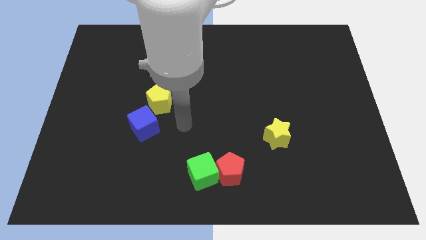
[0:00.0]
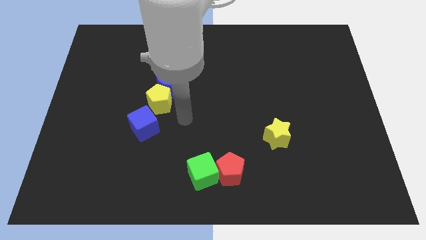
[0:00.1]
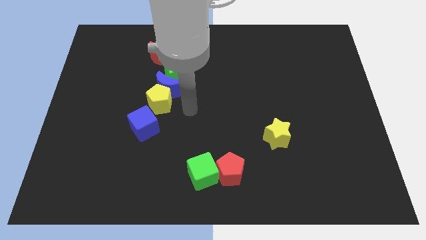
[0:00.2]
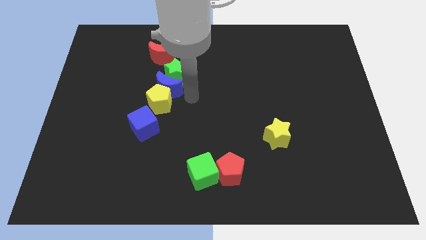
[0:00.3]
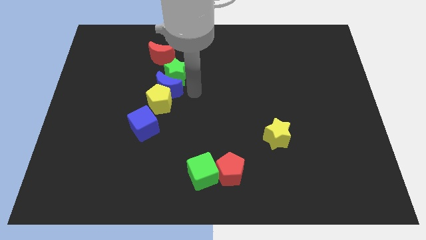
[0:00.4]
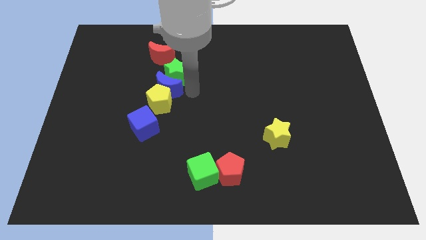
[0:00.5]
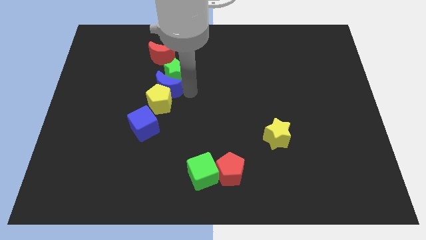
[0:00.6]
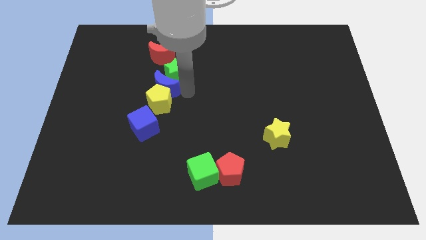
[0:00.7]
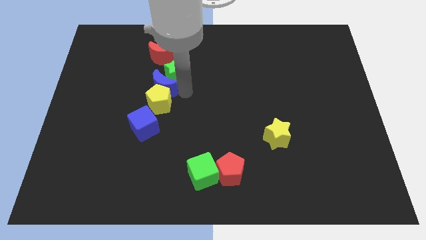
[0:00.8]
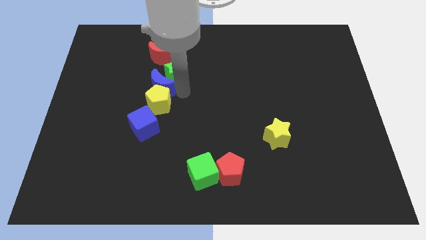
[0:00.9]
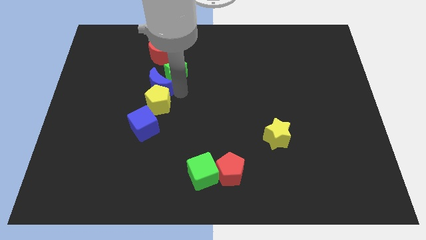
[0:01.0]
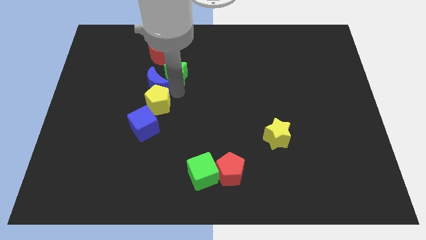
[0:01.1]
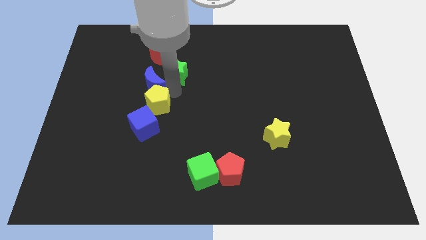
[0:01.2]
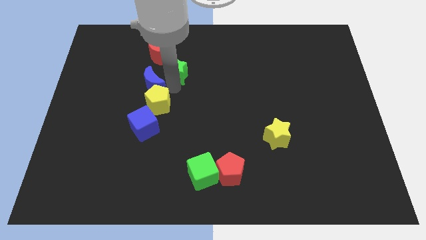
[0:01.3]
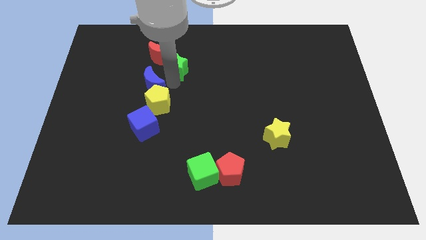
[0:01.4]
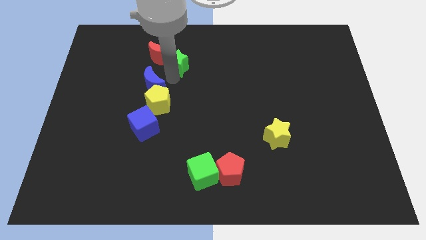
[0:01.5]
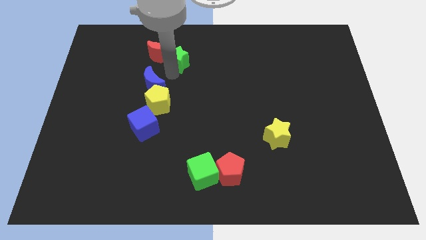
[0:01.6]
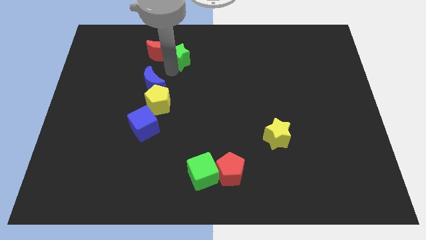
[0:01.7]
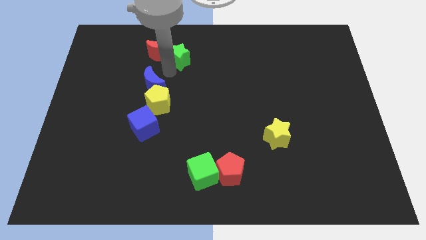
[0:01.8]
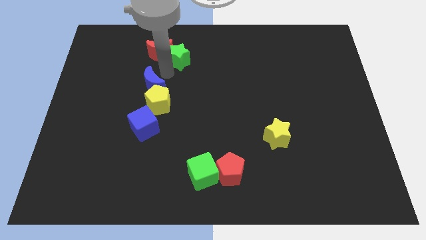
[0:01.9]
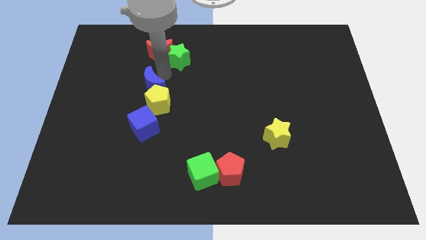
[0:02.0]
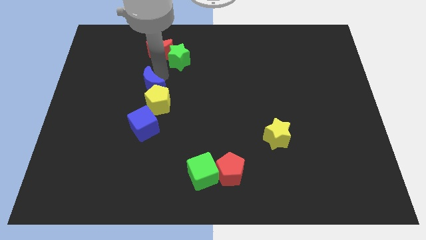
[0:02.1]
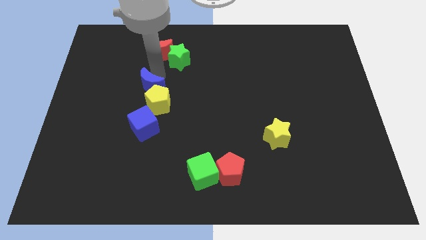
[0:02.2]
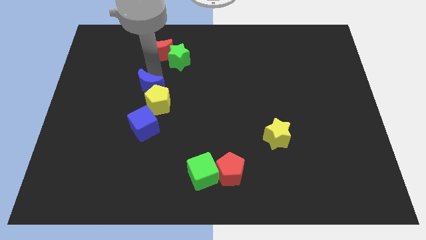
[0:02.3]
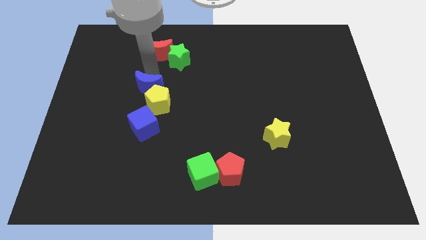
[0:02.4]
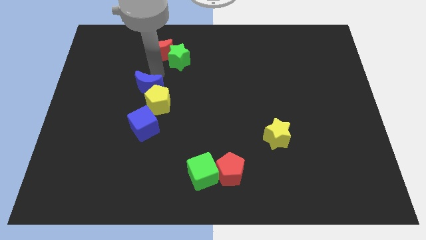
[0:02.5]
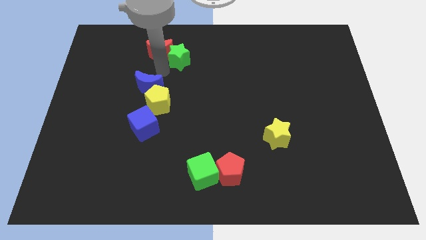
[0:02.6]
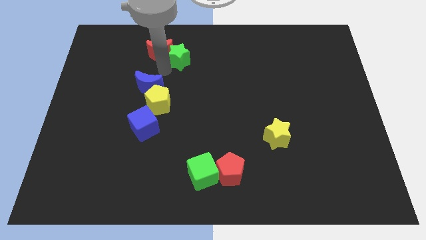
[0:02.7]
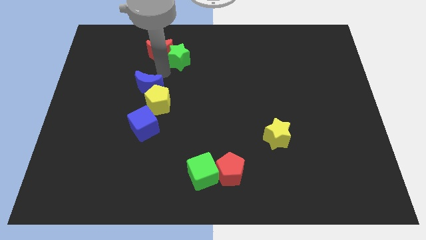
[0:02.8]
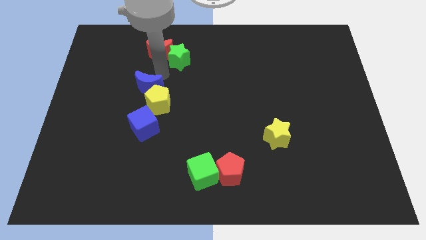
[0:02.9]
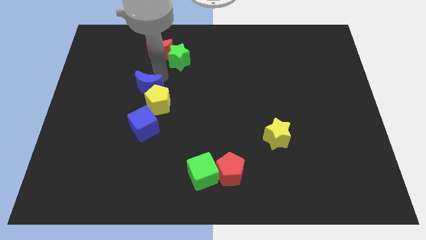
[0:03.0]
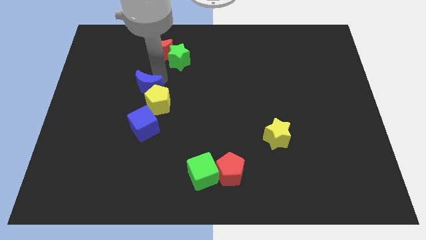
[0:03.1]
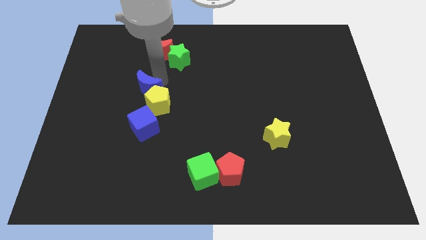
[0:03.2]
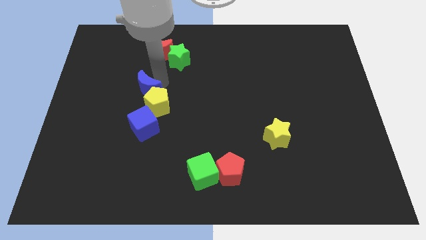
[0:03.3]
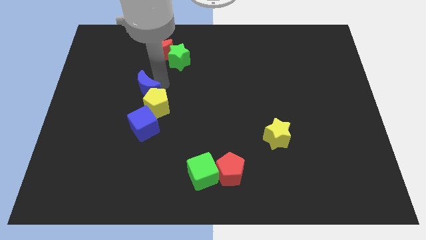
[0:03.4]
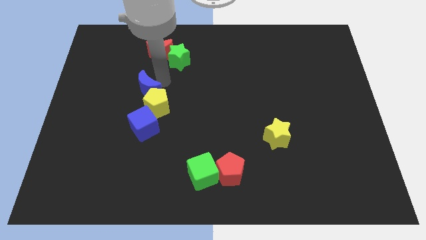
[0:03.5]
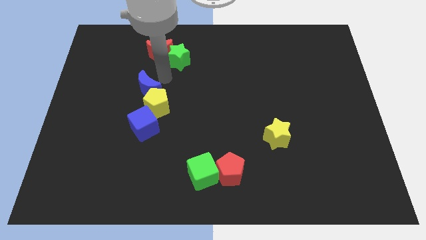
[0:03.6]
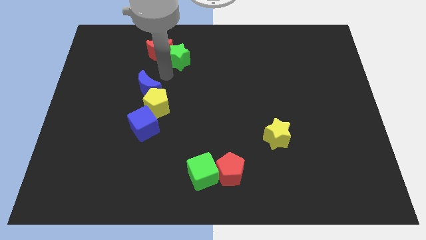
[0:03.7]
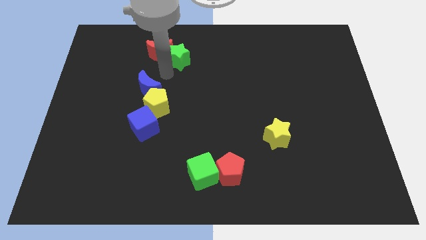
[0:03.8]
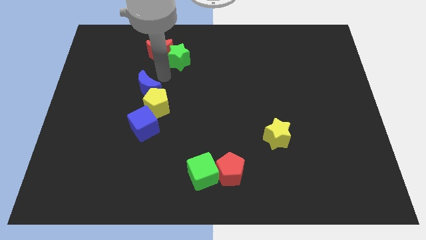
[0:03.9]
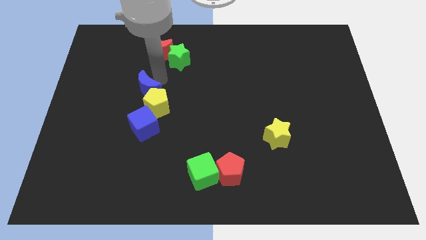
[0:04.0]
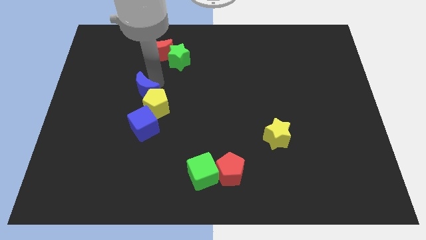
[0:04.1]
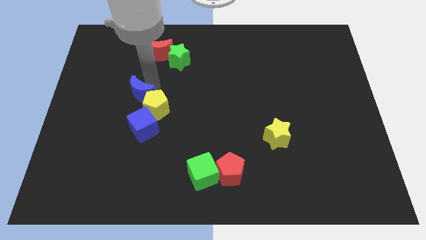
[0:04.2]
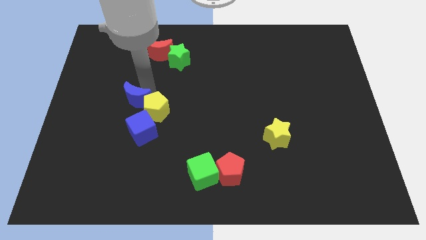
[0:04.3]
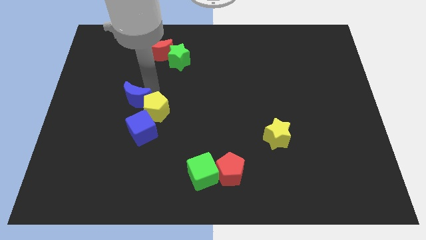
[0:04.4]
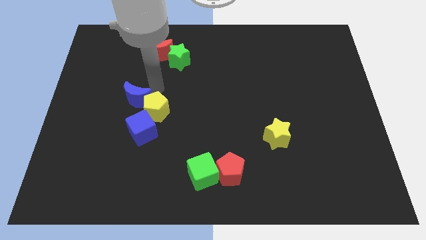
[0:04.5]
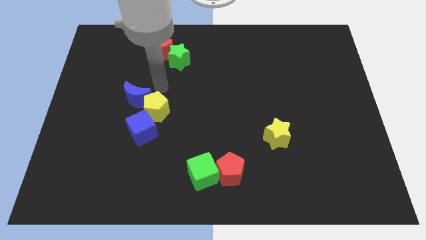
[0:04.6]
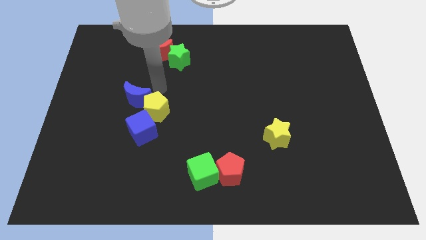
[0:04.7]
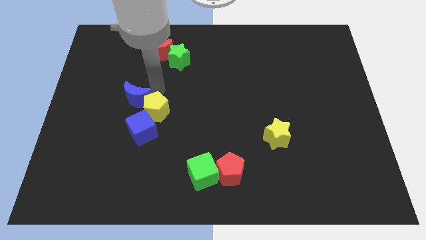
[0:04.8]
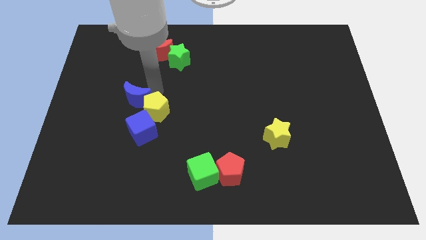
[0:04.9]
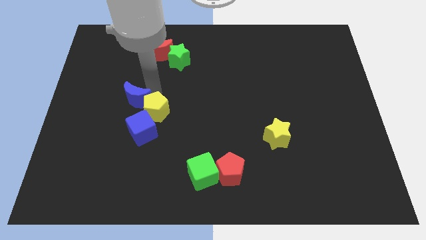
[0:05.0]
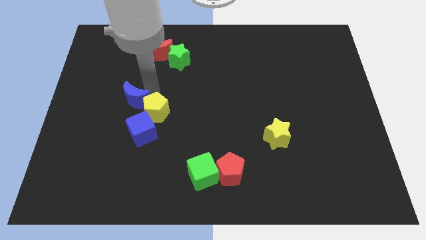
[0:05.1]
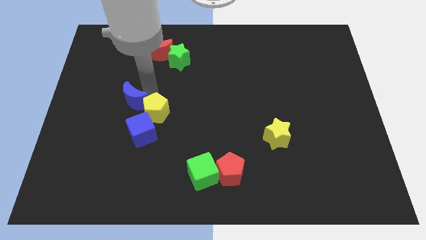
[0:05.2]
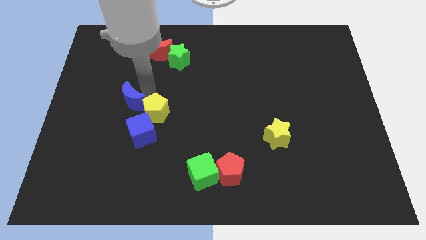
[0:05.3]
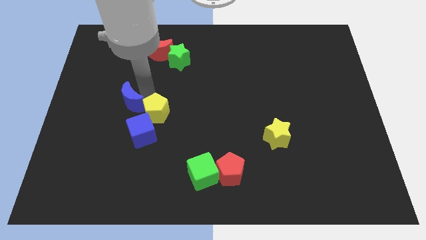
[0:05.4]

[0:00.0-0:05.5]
separate the blue moon from the yellow pentagon and green star

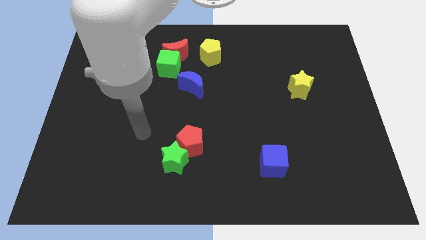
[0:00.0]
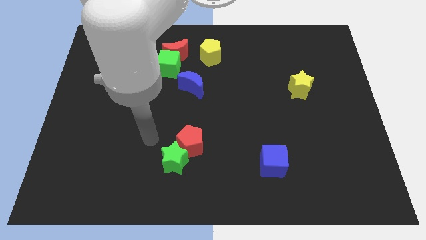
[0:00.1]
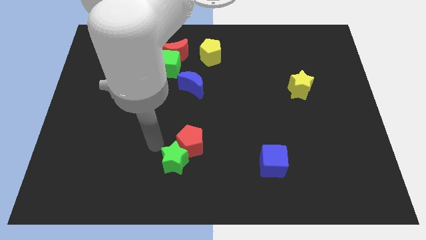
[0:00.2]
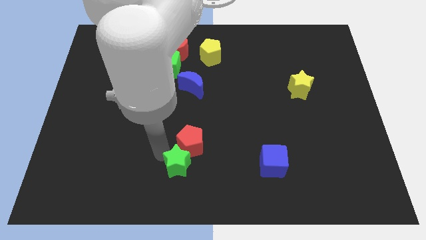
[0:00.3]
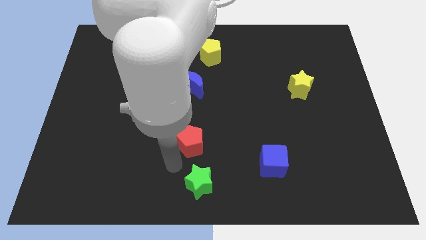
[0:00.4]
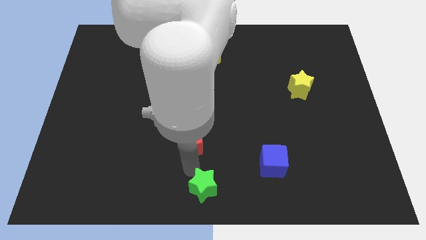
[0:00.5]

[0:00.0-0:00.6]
pull the red pentagon apart from the green star

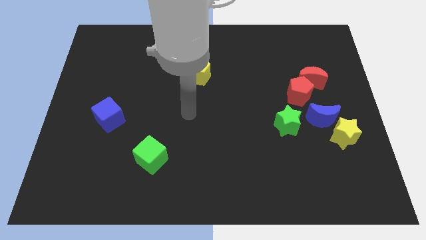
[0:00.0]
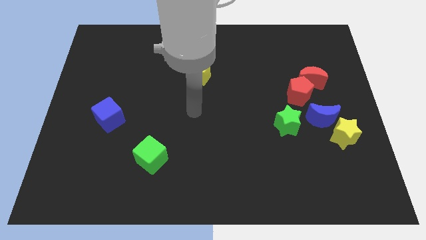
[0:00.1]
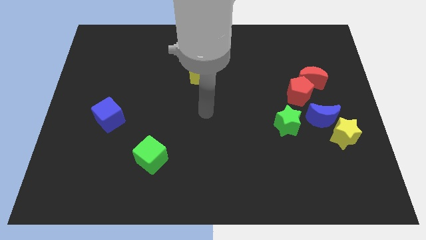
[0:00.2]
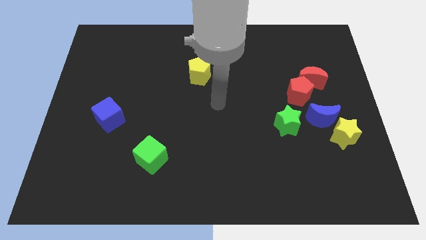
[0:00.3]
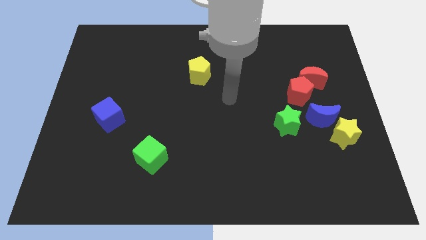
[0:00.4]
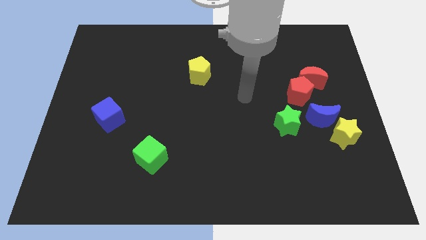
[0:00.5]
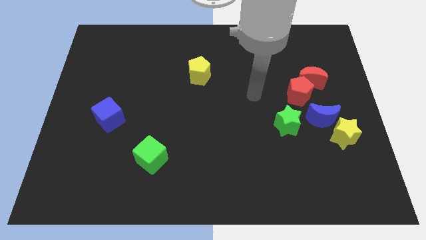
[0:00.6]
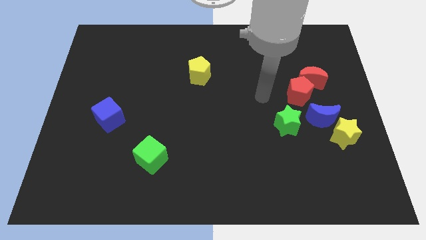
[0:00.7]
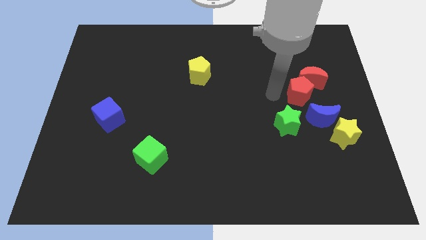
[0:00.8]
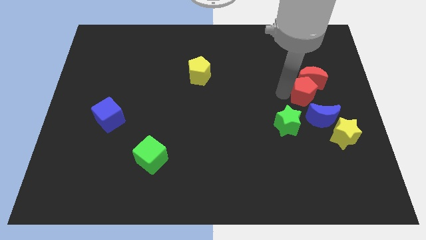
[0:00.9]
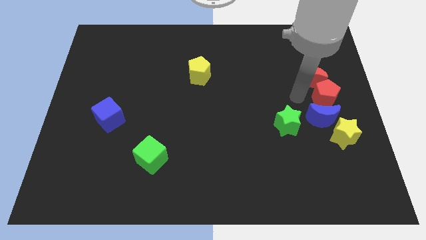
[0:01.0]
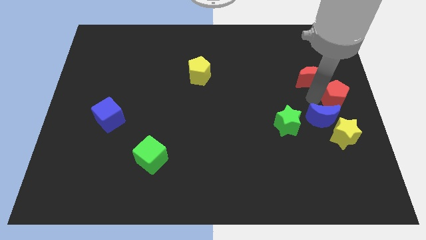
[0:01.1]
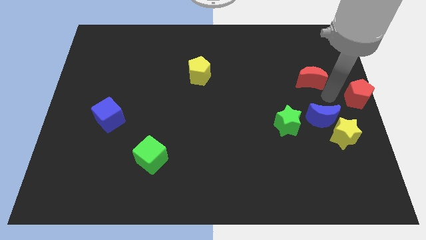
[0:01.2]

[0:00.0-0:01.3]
separate the red moon from the red pentagon

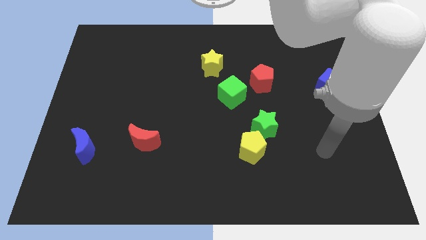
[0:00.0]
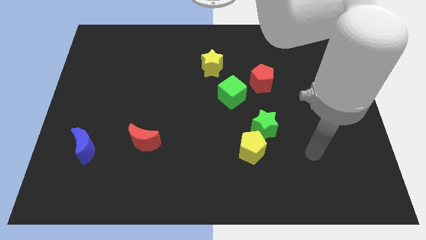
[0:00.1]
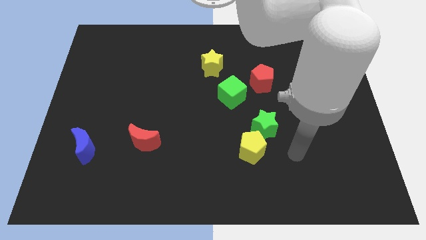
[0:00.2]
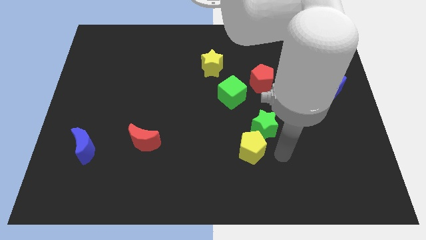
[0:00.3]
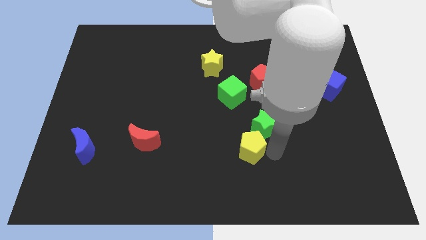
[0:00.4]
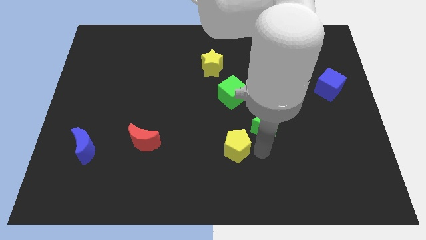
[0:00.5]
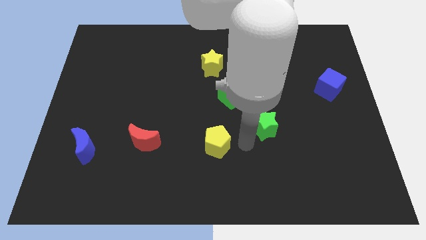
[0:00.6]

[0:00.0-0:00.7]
separate the green star from the yellow pentagon

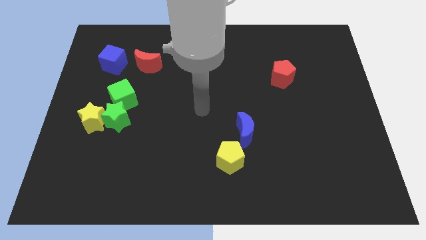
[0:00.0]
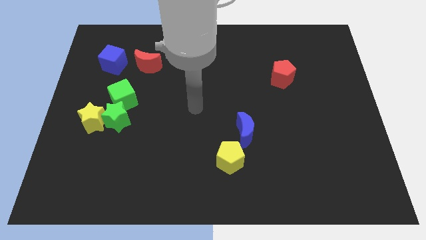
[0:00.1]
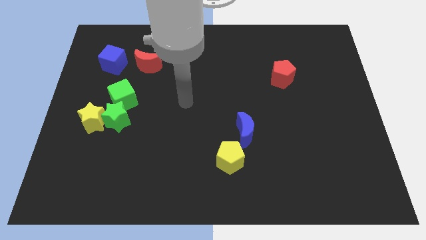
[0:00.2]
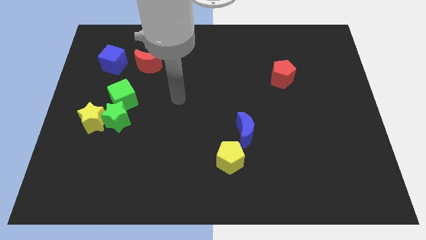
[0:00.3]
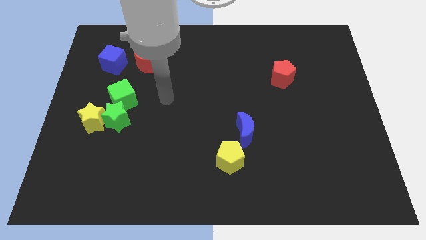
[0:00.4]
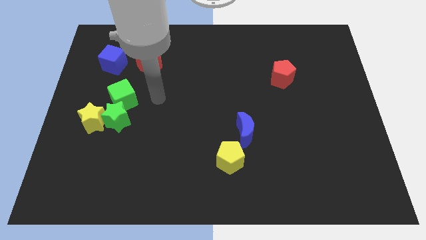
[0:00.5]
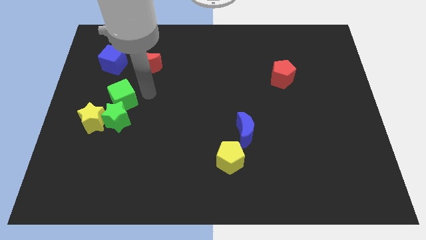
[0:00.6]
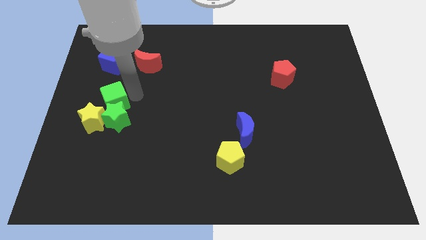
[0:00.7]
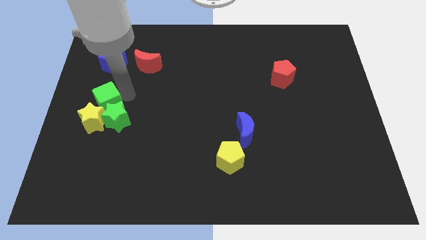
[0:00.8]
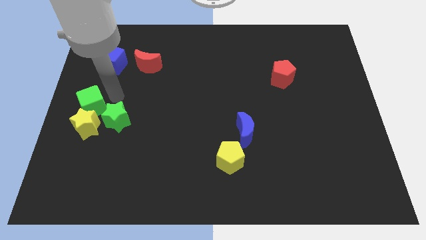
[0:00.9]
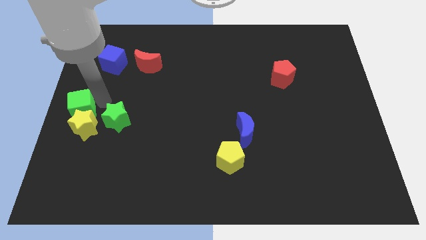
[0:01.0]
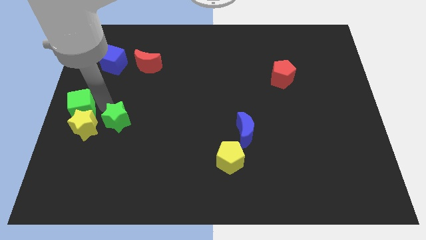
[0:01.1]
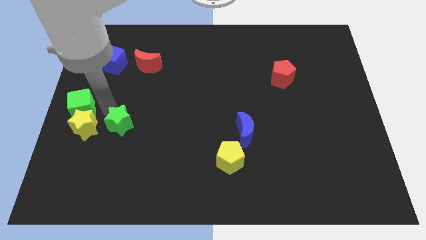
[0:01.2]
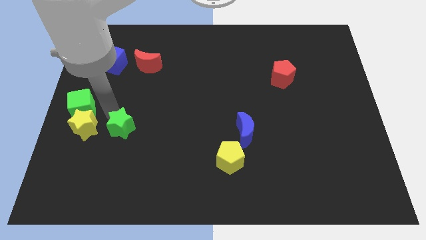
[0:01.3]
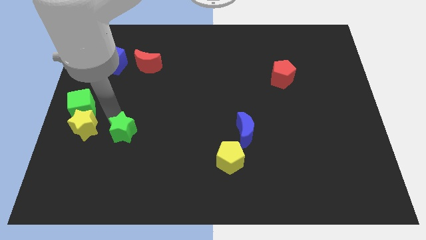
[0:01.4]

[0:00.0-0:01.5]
move the green star away from the yellow star and green cube
